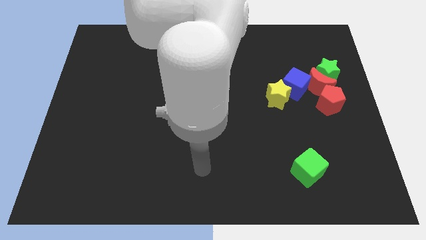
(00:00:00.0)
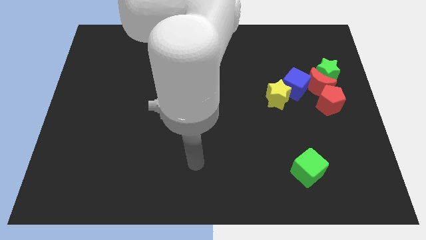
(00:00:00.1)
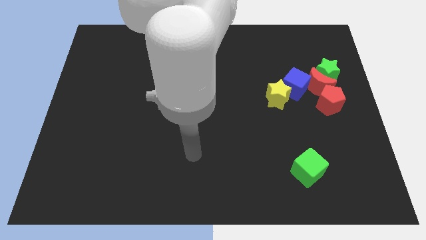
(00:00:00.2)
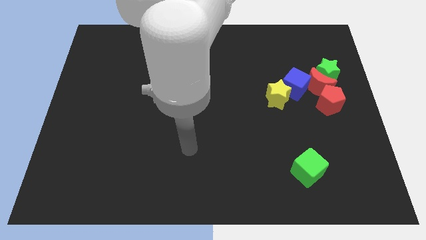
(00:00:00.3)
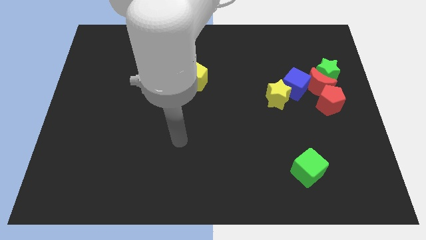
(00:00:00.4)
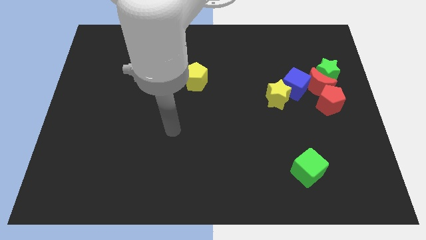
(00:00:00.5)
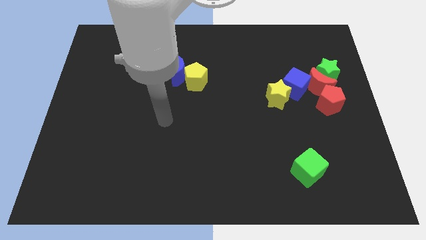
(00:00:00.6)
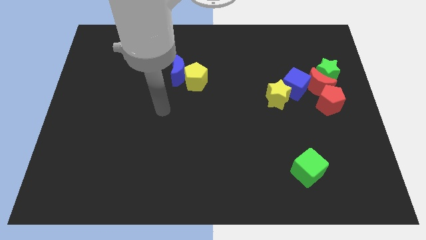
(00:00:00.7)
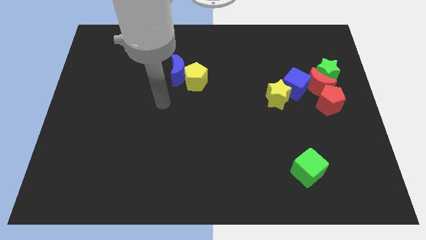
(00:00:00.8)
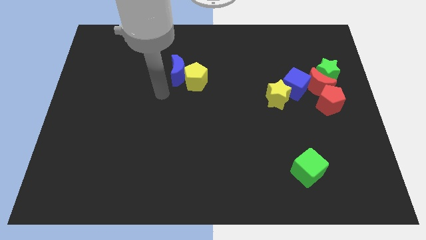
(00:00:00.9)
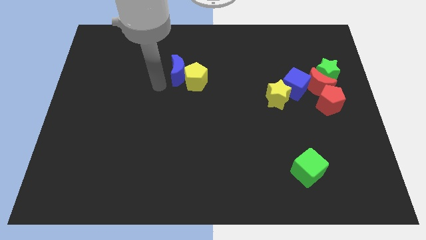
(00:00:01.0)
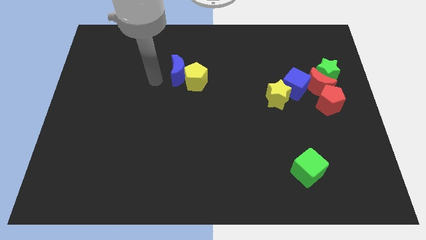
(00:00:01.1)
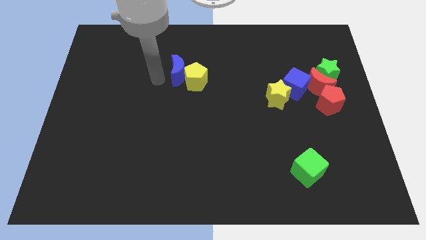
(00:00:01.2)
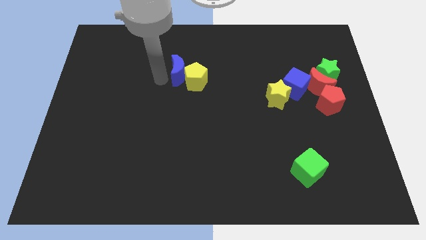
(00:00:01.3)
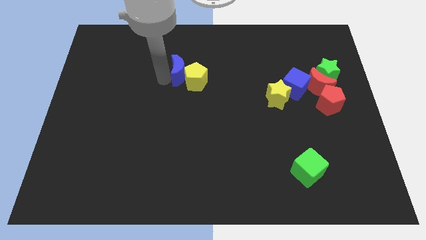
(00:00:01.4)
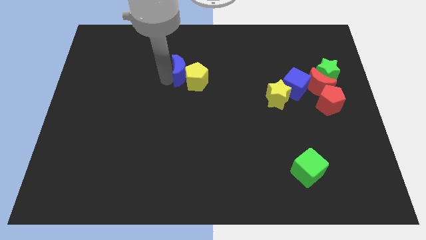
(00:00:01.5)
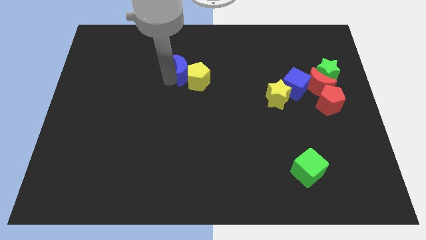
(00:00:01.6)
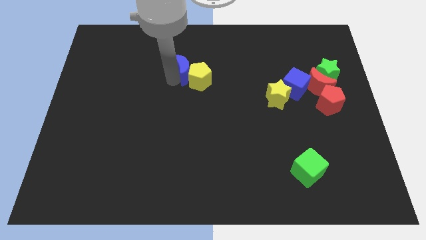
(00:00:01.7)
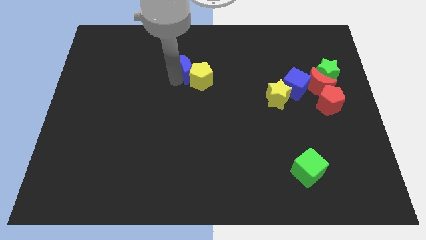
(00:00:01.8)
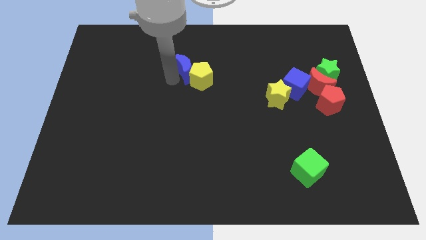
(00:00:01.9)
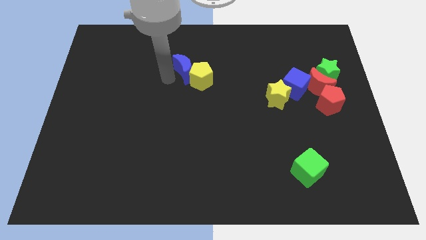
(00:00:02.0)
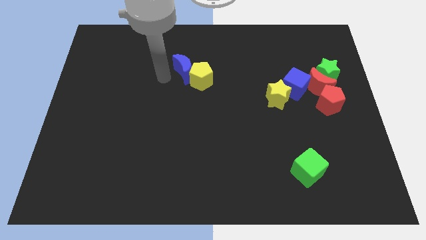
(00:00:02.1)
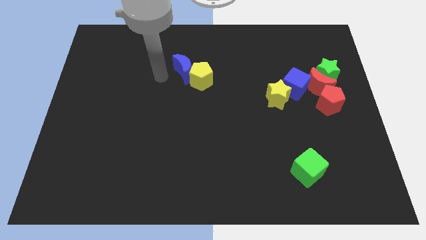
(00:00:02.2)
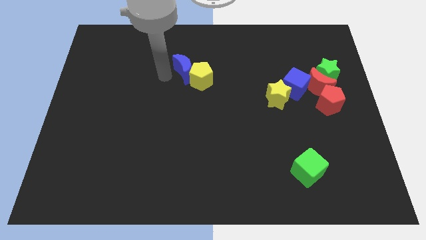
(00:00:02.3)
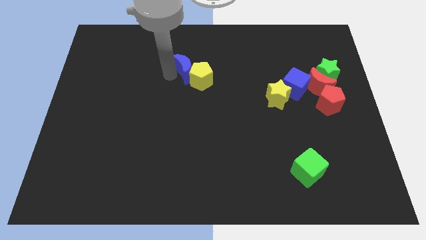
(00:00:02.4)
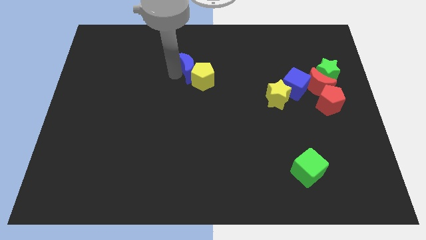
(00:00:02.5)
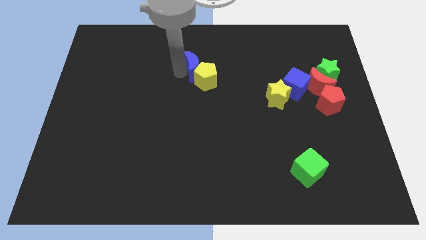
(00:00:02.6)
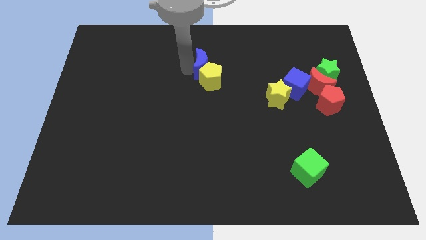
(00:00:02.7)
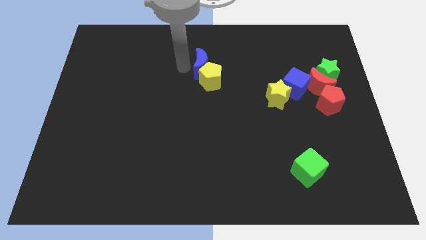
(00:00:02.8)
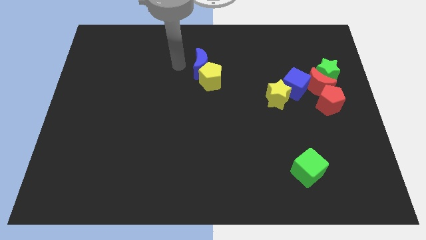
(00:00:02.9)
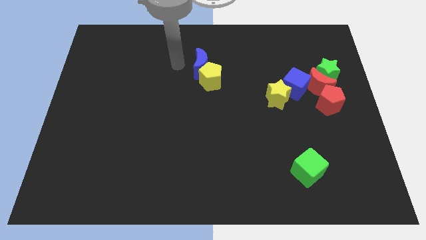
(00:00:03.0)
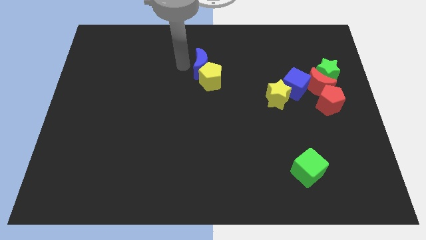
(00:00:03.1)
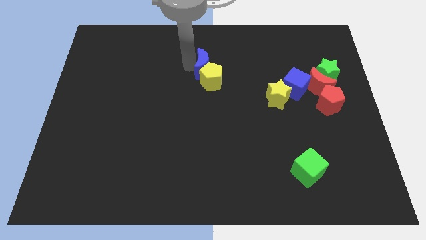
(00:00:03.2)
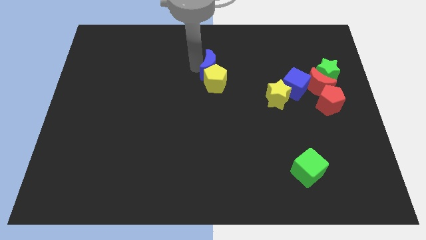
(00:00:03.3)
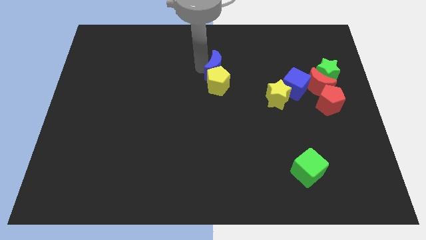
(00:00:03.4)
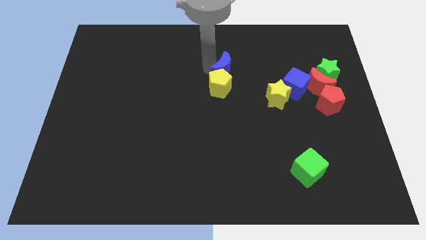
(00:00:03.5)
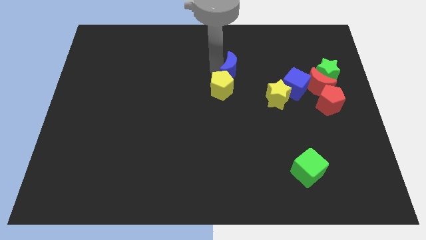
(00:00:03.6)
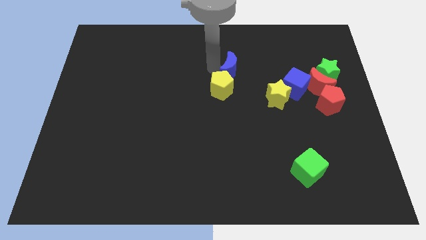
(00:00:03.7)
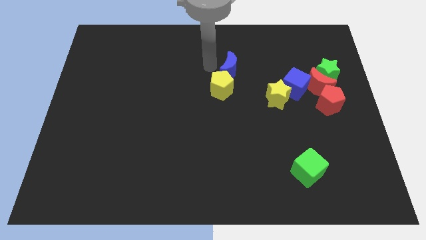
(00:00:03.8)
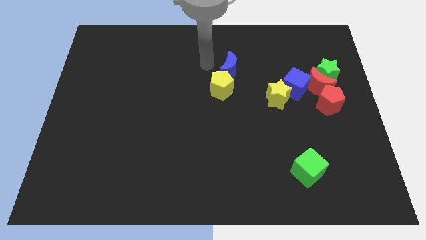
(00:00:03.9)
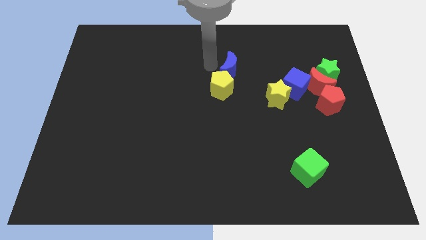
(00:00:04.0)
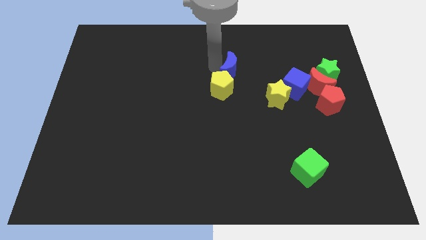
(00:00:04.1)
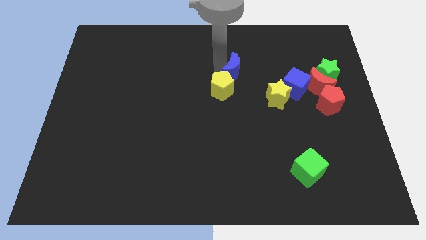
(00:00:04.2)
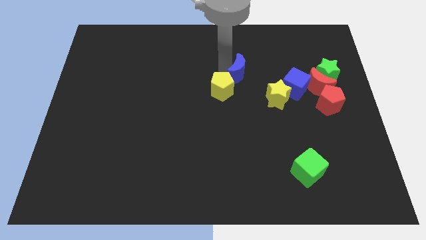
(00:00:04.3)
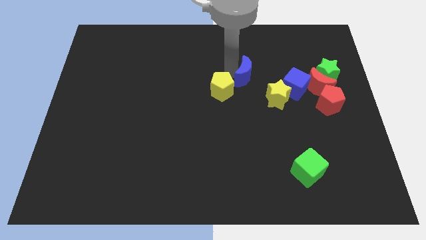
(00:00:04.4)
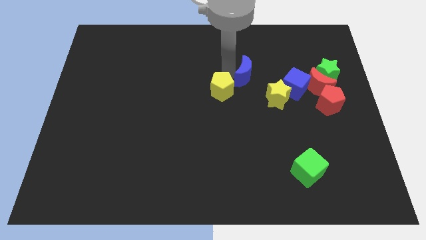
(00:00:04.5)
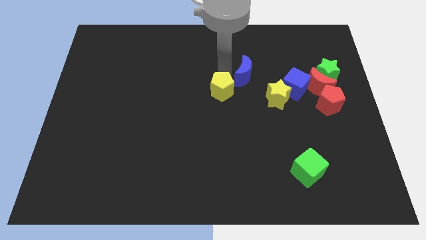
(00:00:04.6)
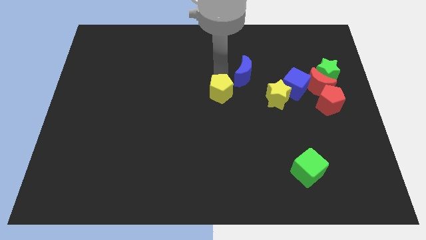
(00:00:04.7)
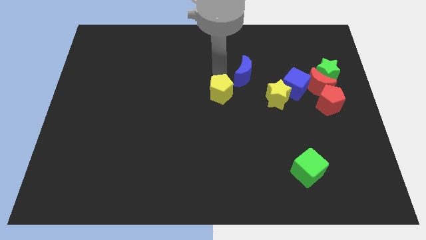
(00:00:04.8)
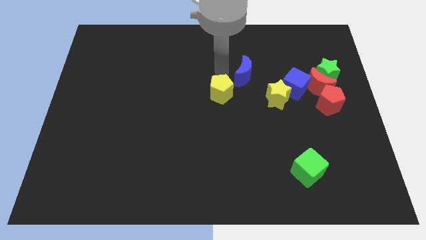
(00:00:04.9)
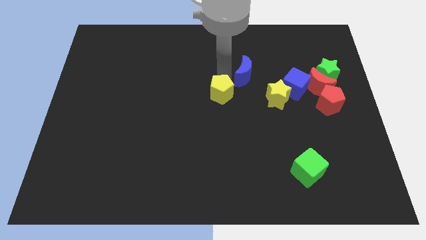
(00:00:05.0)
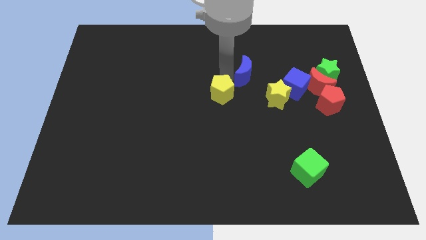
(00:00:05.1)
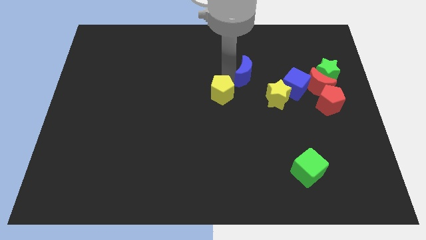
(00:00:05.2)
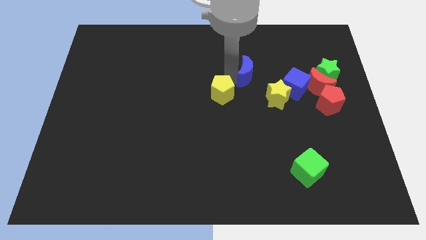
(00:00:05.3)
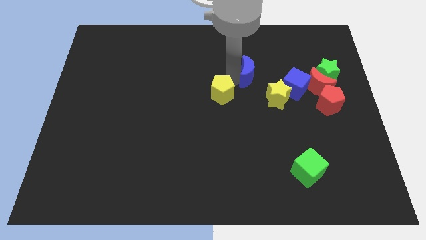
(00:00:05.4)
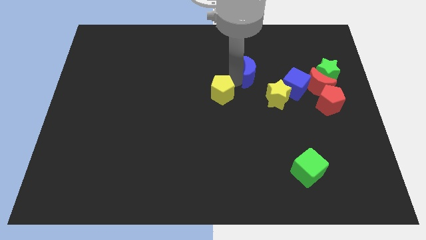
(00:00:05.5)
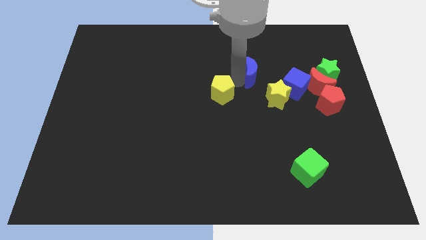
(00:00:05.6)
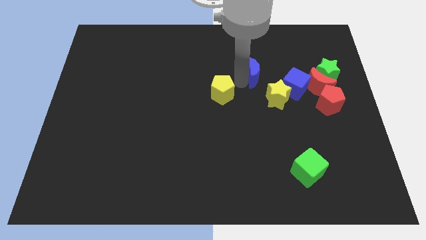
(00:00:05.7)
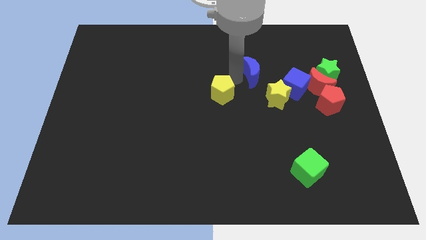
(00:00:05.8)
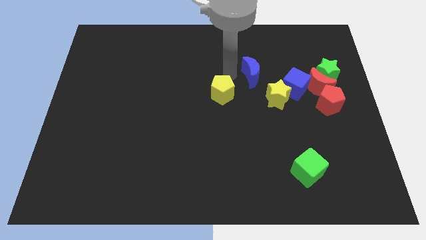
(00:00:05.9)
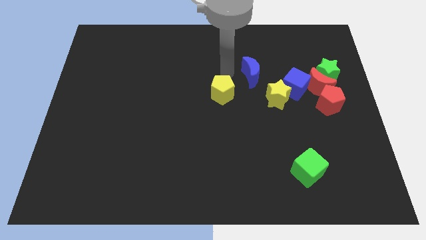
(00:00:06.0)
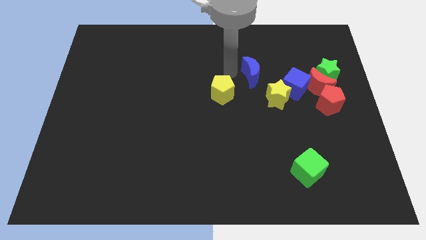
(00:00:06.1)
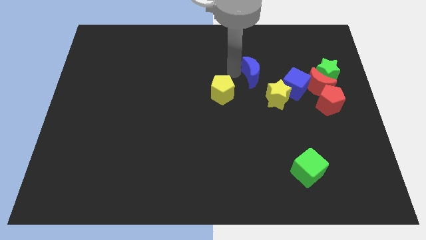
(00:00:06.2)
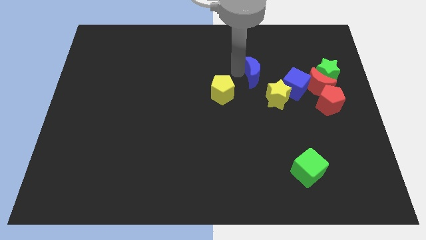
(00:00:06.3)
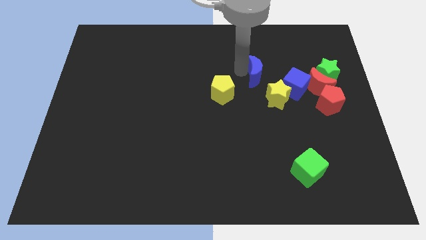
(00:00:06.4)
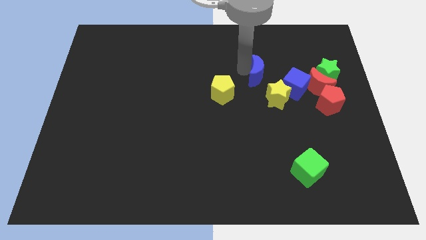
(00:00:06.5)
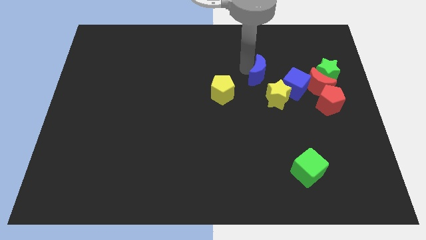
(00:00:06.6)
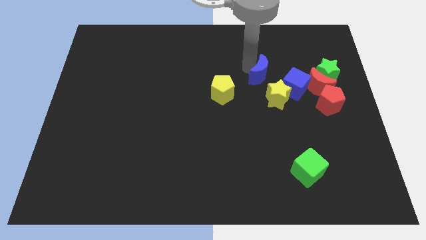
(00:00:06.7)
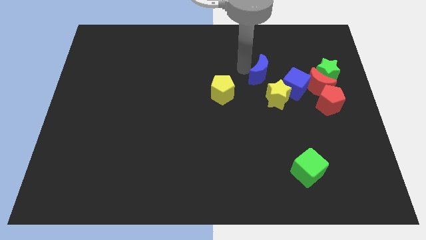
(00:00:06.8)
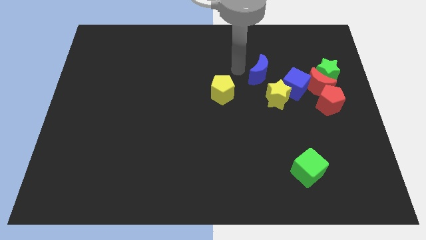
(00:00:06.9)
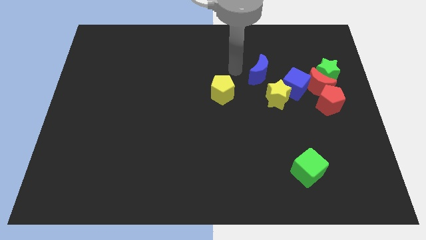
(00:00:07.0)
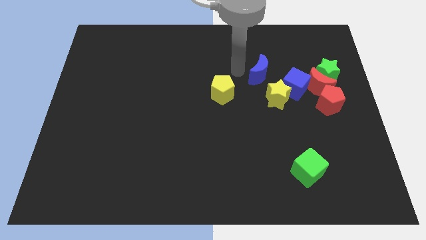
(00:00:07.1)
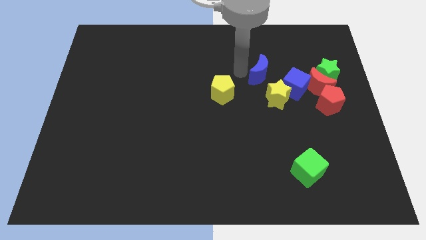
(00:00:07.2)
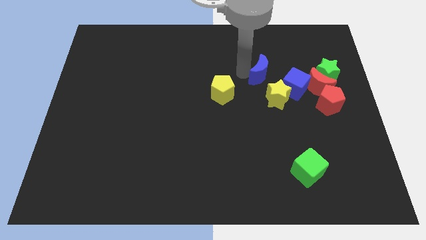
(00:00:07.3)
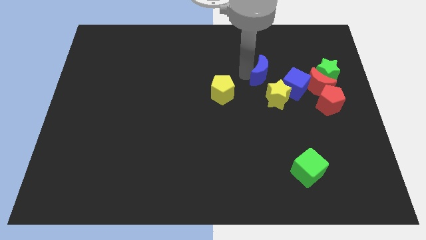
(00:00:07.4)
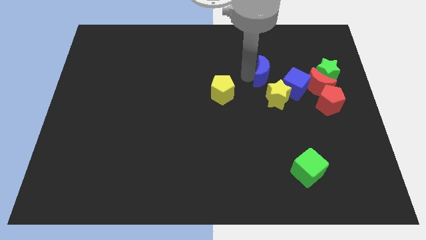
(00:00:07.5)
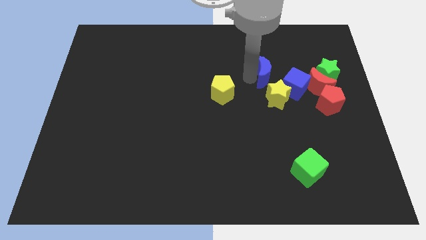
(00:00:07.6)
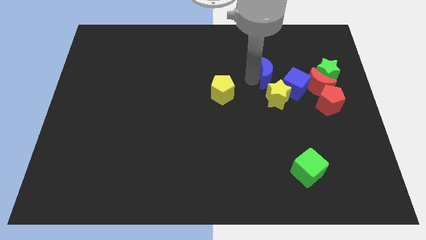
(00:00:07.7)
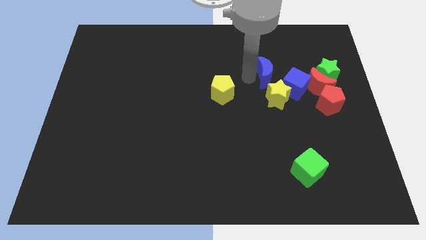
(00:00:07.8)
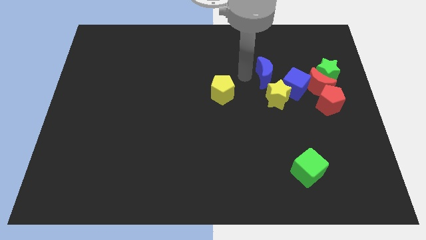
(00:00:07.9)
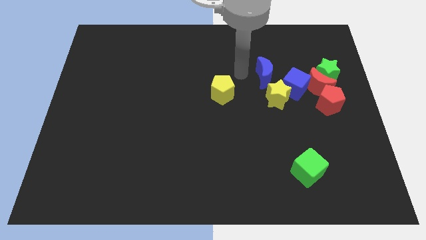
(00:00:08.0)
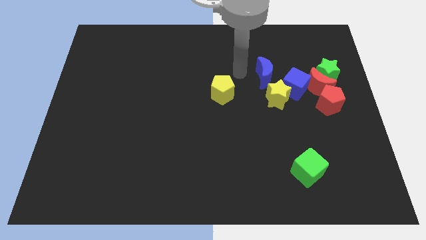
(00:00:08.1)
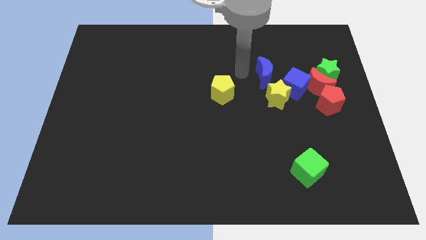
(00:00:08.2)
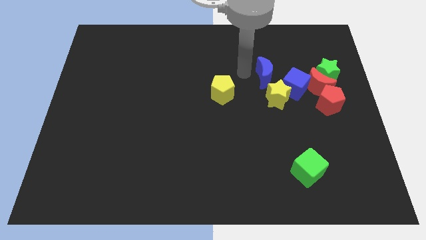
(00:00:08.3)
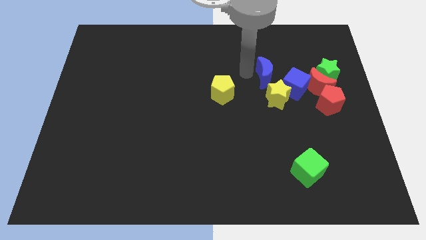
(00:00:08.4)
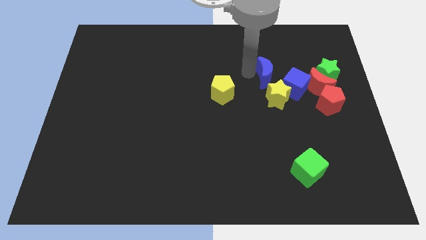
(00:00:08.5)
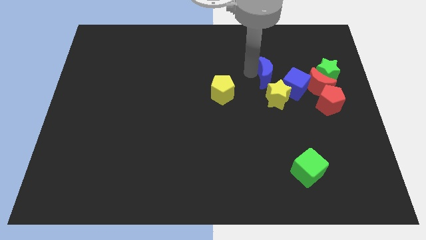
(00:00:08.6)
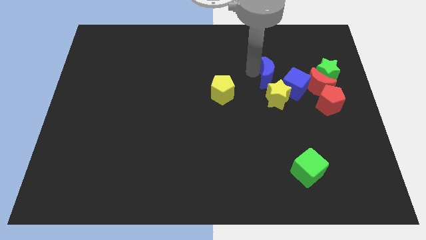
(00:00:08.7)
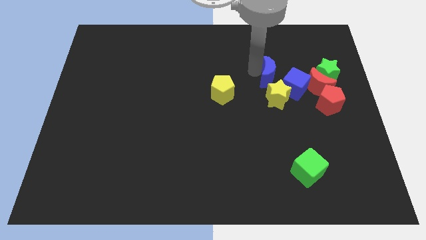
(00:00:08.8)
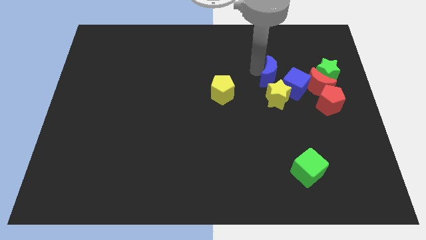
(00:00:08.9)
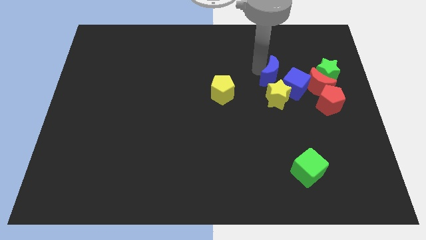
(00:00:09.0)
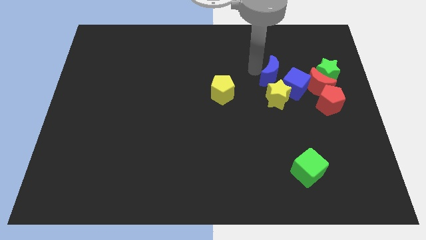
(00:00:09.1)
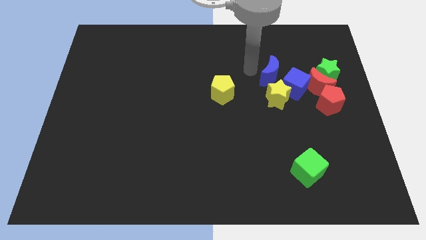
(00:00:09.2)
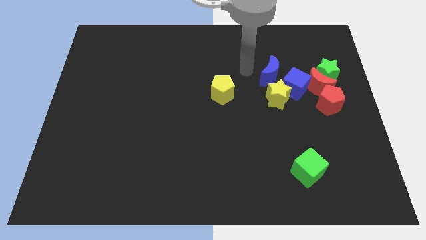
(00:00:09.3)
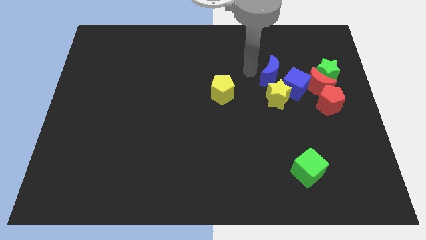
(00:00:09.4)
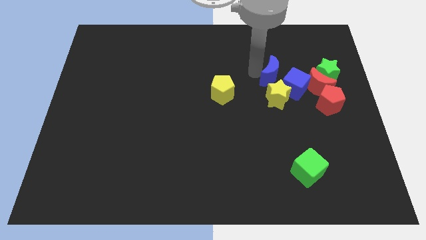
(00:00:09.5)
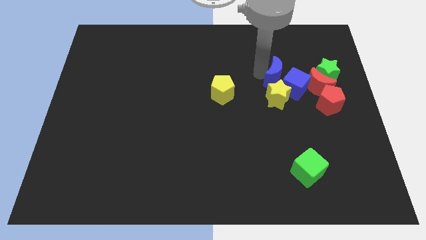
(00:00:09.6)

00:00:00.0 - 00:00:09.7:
push the blue moon close to the blue cube
